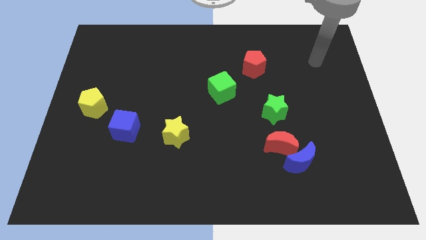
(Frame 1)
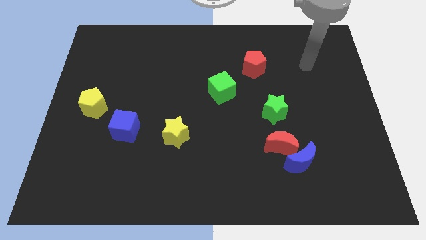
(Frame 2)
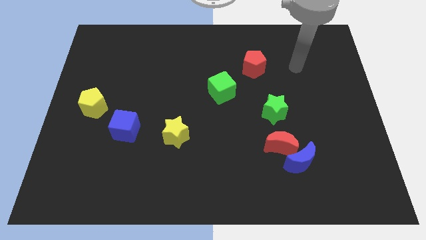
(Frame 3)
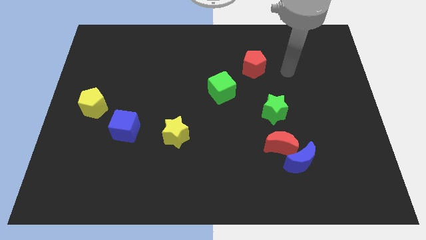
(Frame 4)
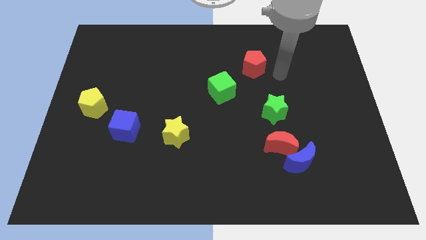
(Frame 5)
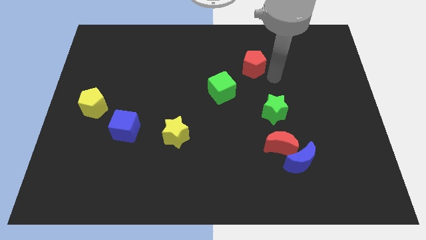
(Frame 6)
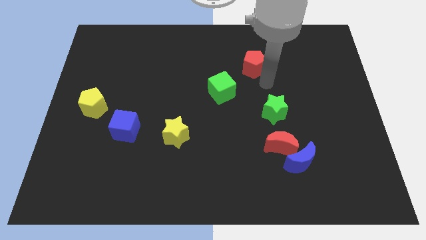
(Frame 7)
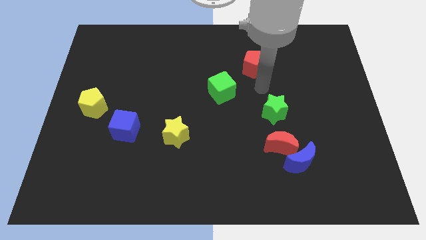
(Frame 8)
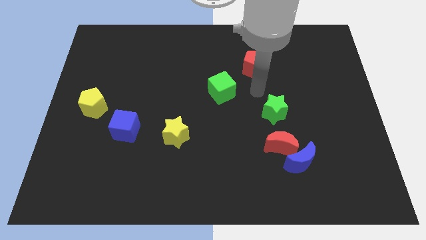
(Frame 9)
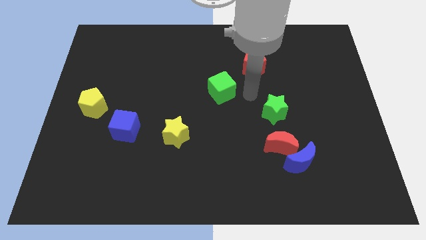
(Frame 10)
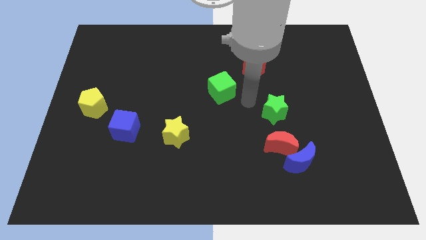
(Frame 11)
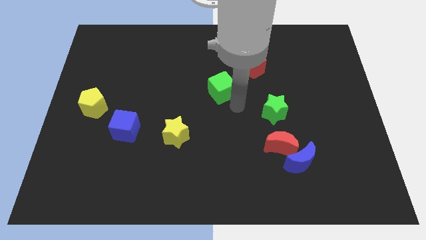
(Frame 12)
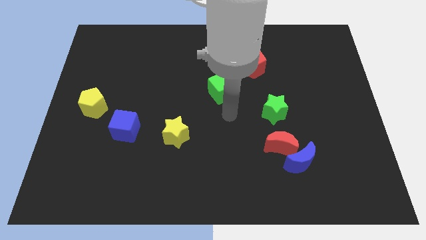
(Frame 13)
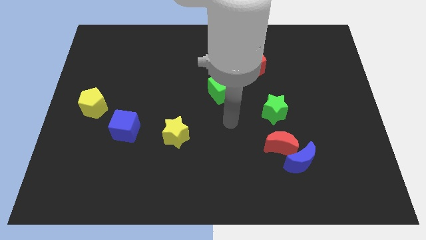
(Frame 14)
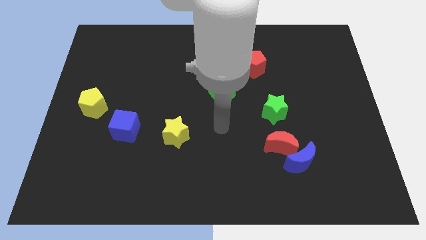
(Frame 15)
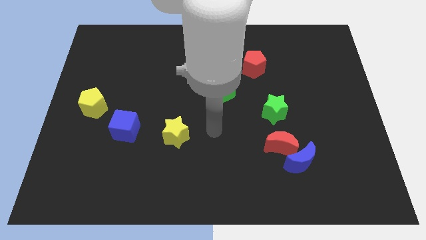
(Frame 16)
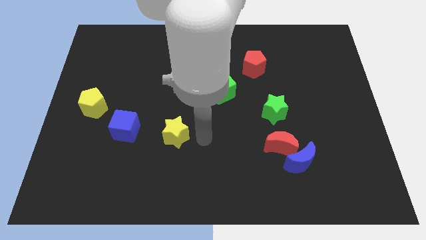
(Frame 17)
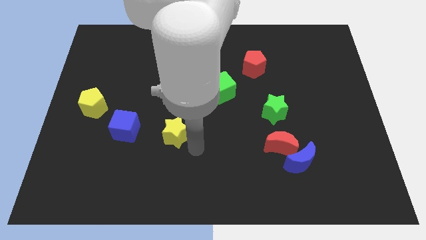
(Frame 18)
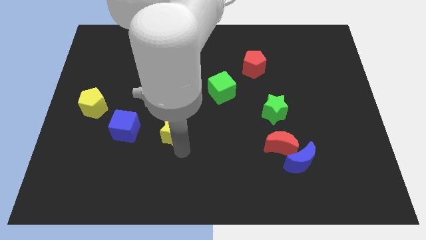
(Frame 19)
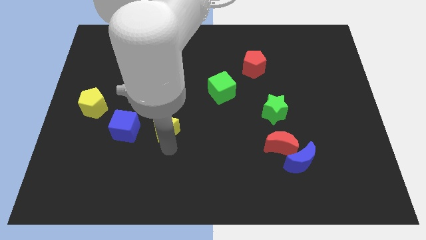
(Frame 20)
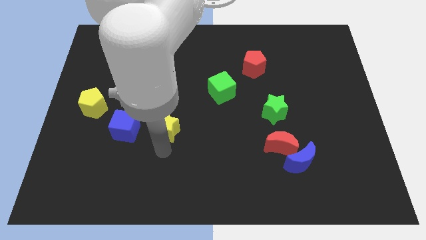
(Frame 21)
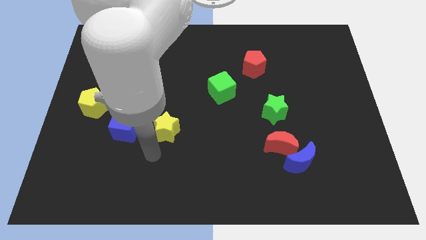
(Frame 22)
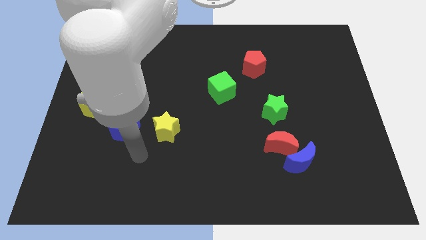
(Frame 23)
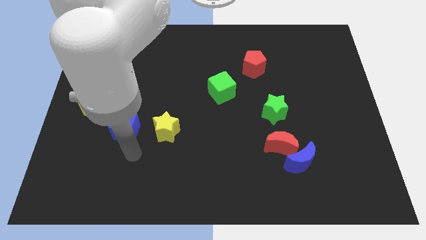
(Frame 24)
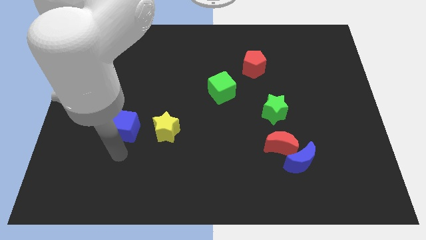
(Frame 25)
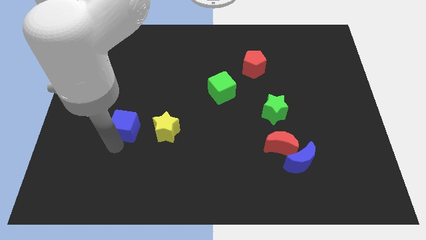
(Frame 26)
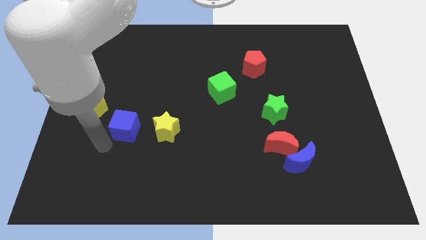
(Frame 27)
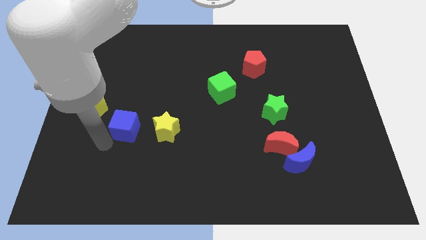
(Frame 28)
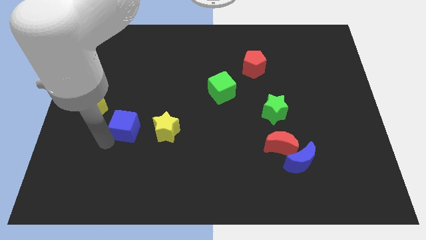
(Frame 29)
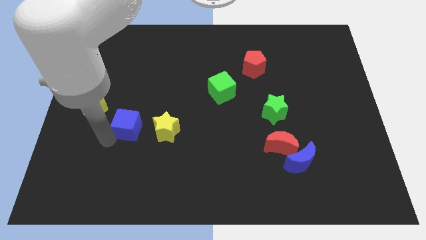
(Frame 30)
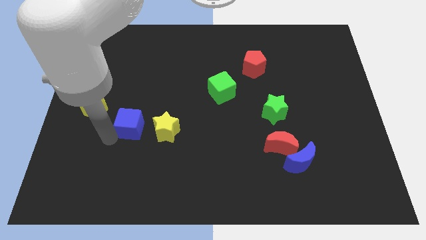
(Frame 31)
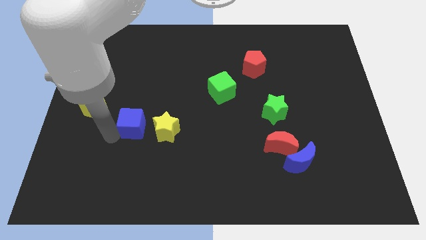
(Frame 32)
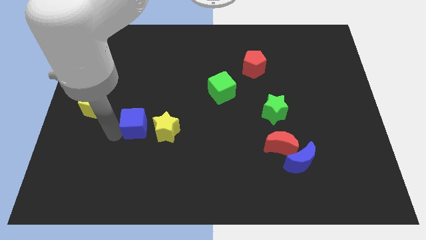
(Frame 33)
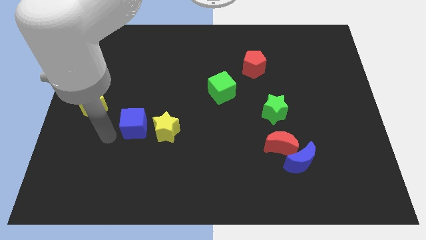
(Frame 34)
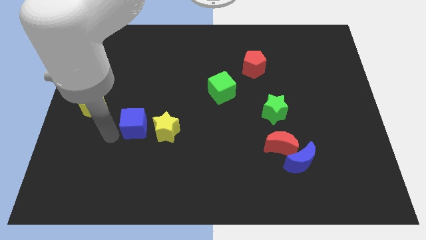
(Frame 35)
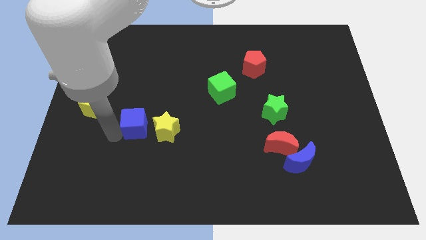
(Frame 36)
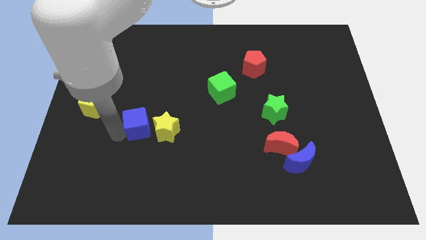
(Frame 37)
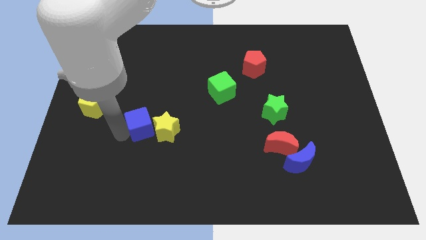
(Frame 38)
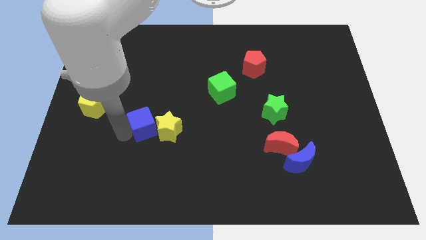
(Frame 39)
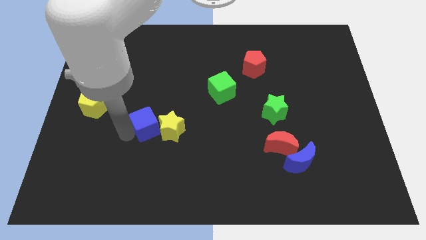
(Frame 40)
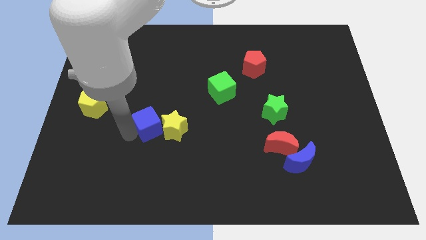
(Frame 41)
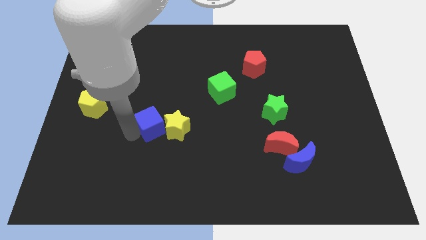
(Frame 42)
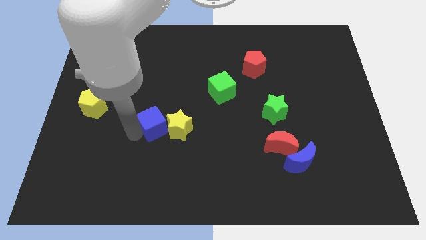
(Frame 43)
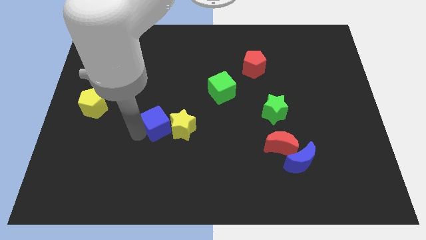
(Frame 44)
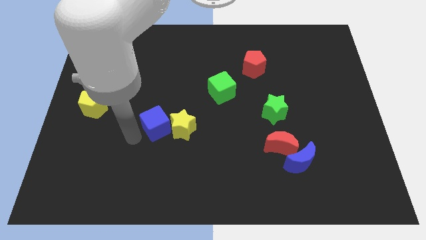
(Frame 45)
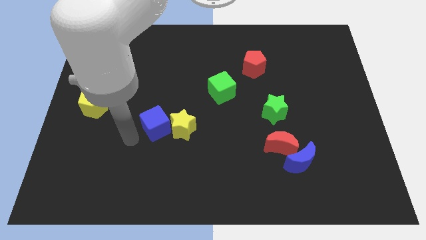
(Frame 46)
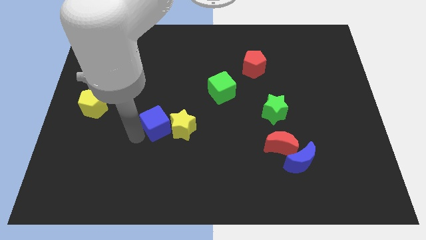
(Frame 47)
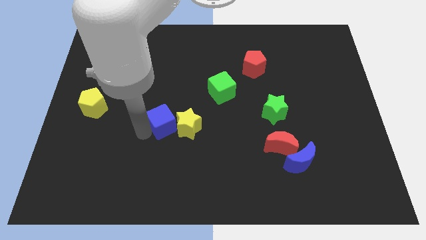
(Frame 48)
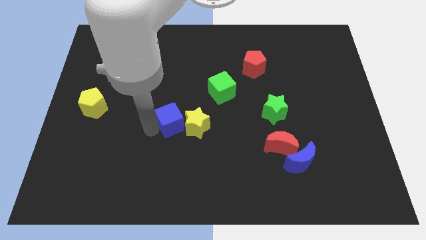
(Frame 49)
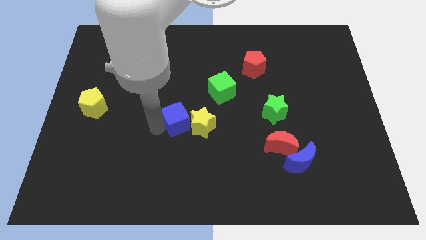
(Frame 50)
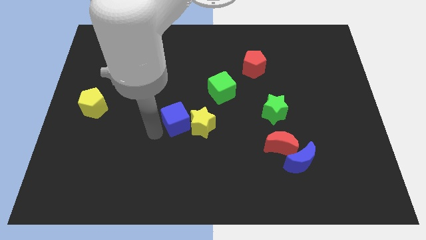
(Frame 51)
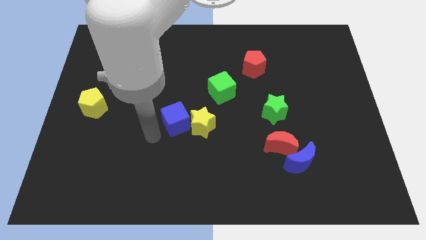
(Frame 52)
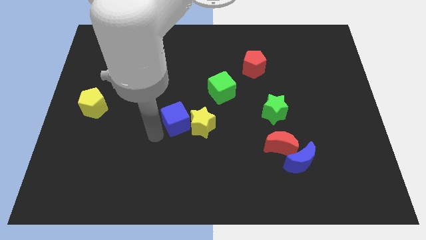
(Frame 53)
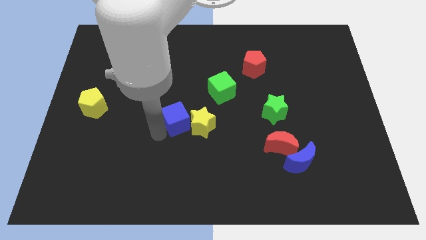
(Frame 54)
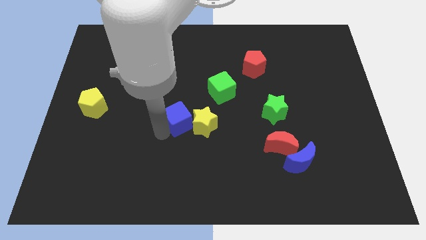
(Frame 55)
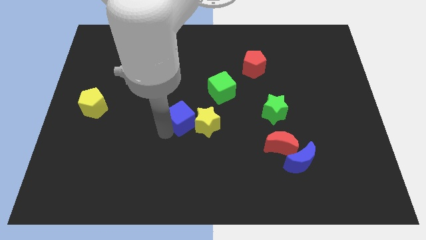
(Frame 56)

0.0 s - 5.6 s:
push the blue cube diagonally down and to the left of the green cube

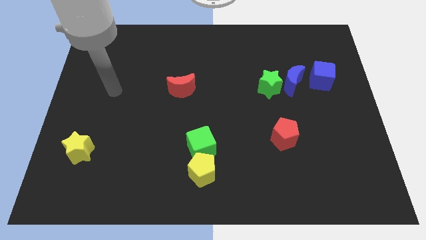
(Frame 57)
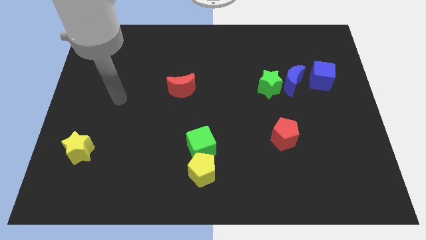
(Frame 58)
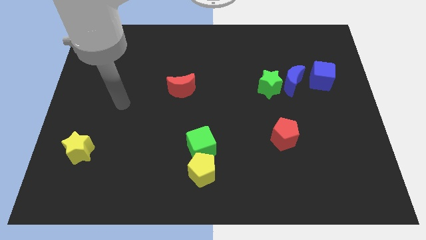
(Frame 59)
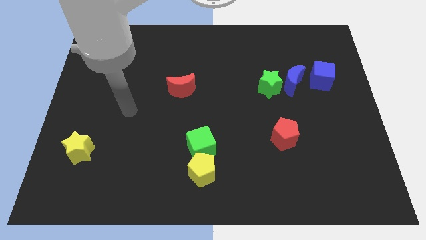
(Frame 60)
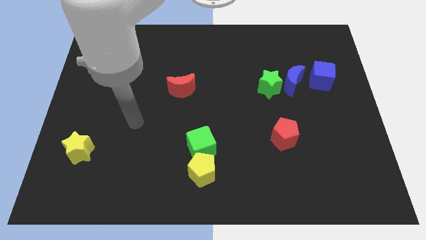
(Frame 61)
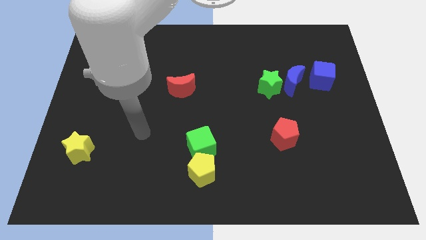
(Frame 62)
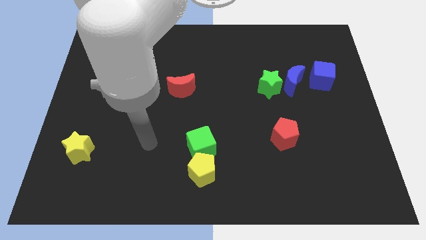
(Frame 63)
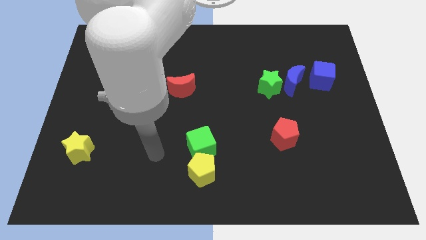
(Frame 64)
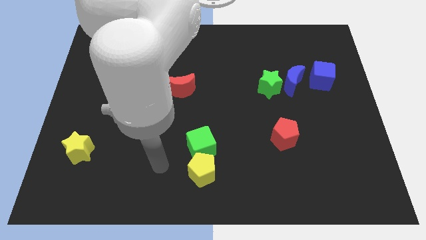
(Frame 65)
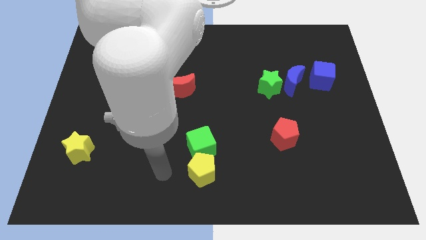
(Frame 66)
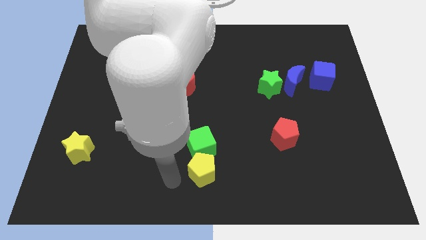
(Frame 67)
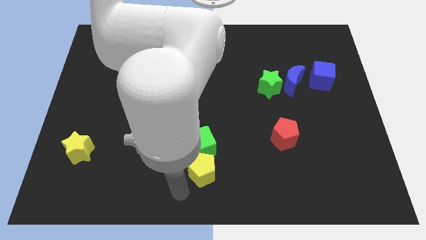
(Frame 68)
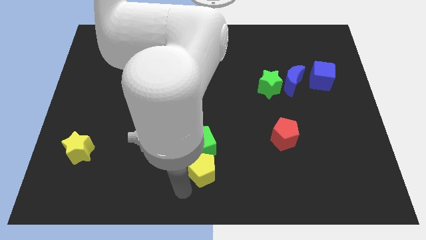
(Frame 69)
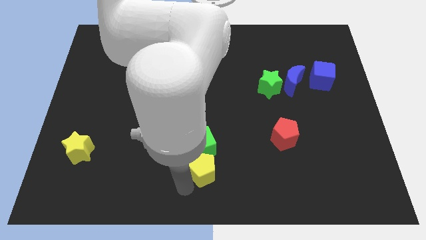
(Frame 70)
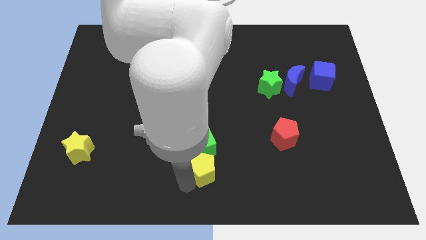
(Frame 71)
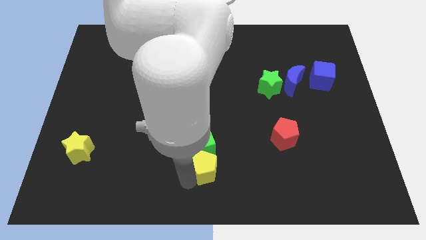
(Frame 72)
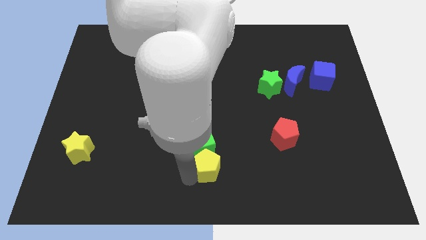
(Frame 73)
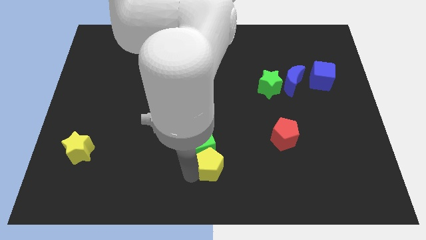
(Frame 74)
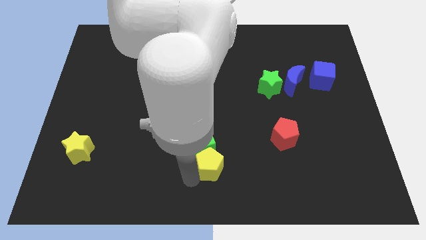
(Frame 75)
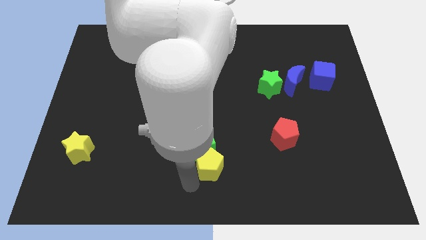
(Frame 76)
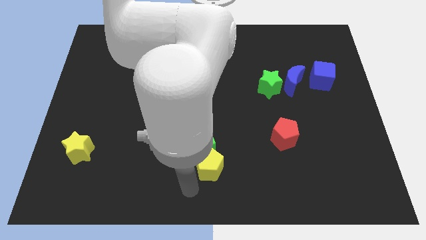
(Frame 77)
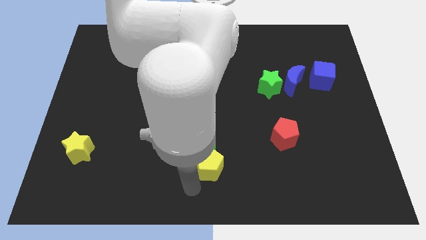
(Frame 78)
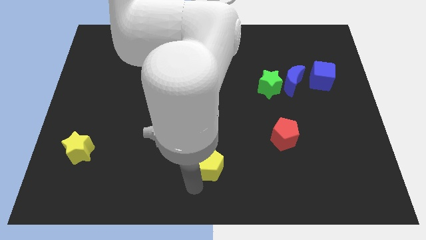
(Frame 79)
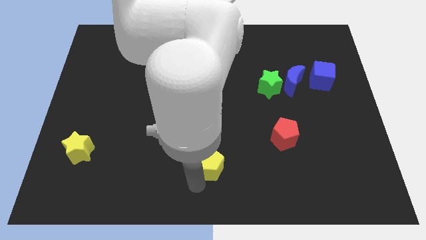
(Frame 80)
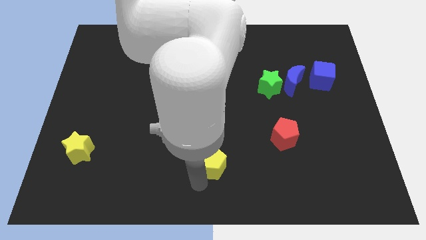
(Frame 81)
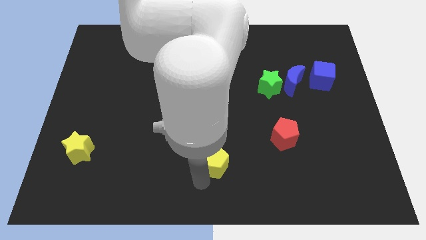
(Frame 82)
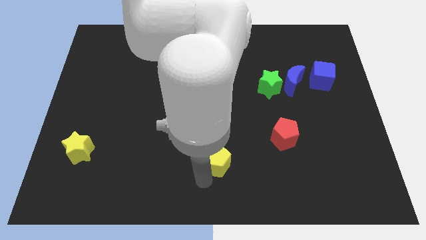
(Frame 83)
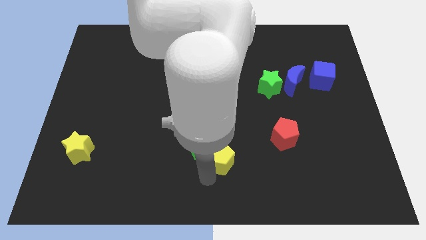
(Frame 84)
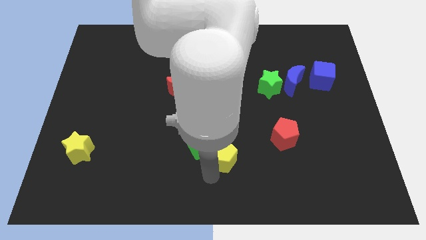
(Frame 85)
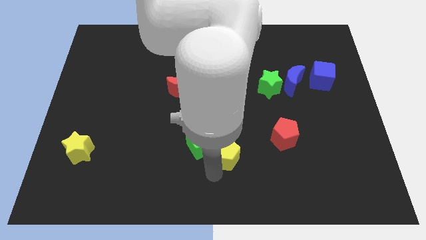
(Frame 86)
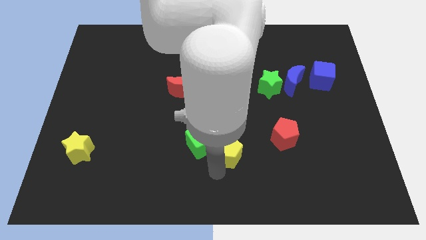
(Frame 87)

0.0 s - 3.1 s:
put the yellow pentagon left of the red pentagon
